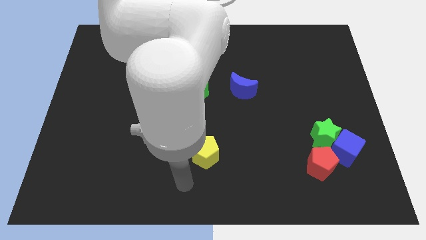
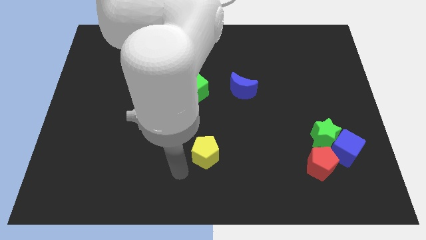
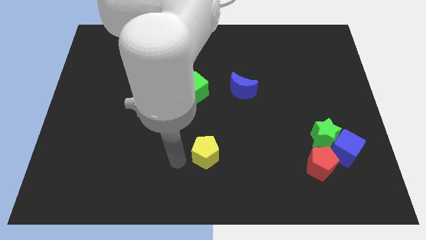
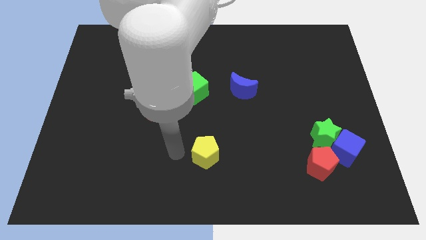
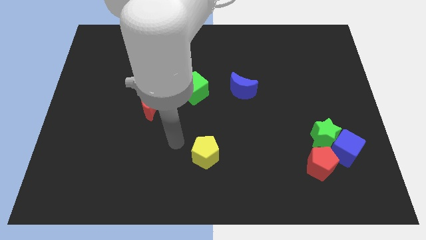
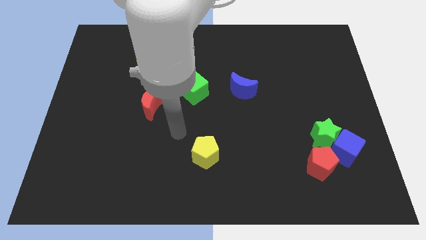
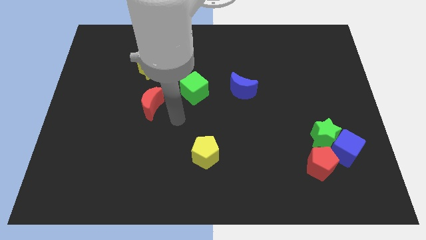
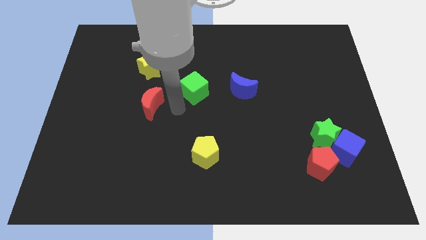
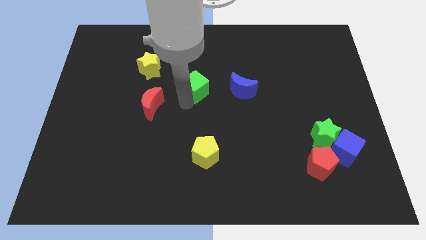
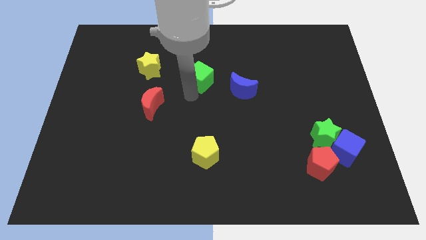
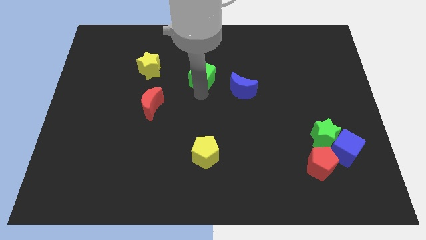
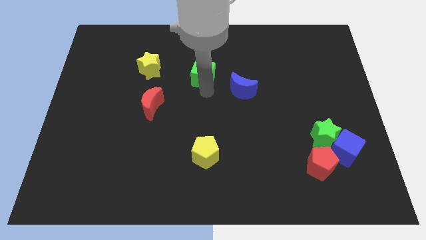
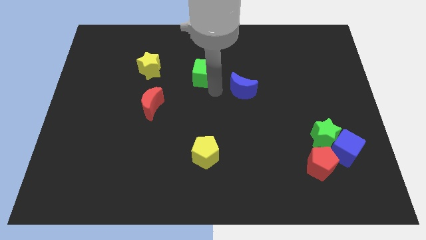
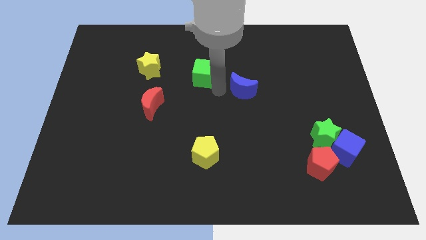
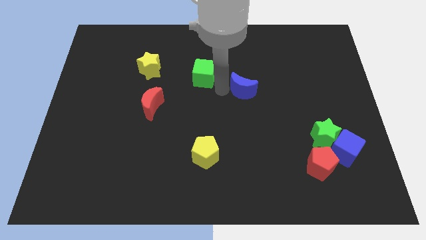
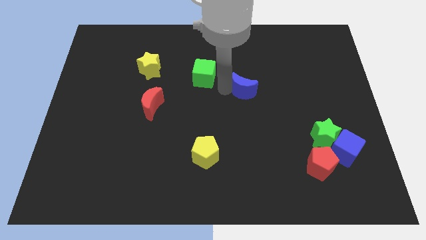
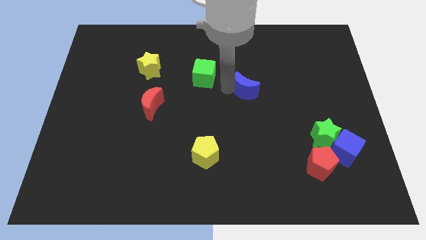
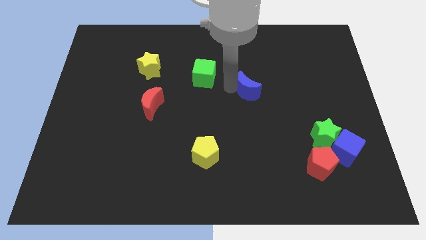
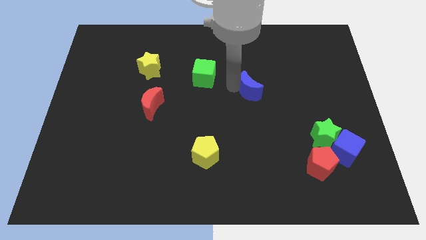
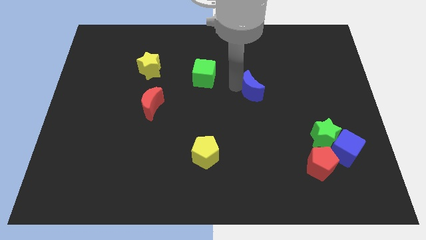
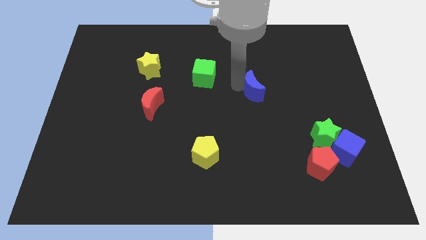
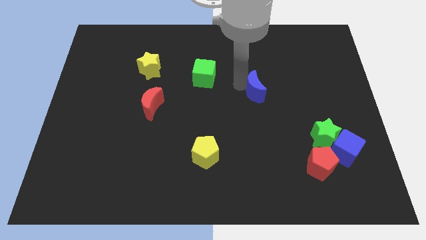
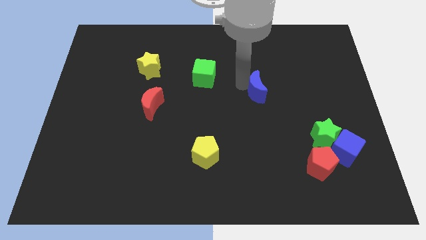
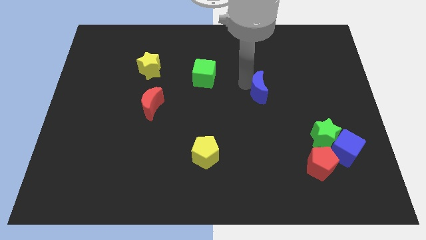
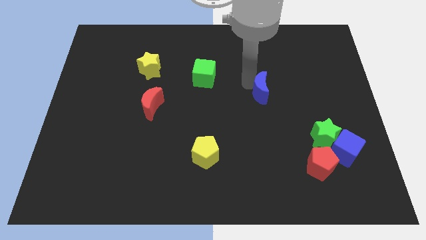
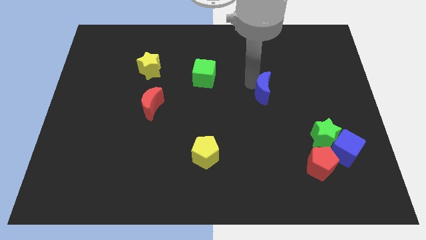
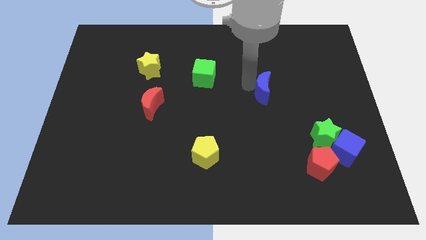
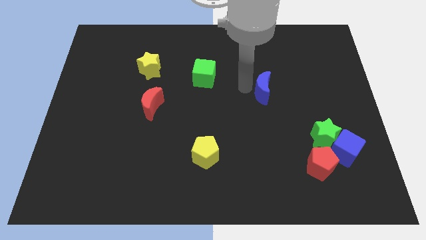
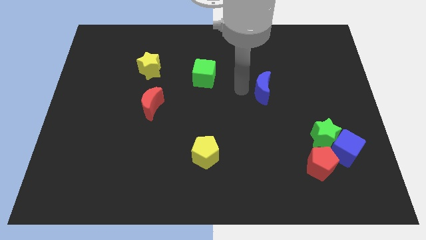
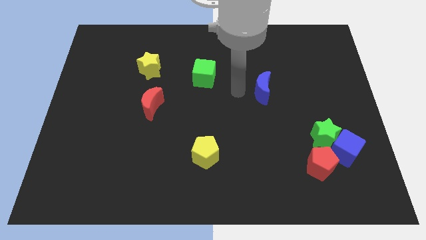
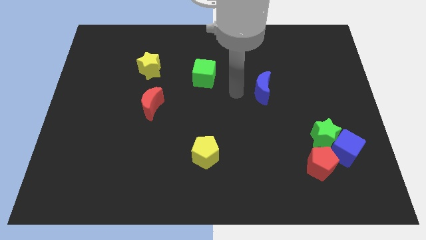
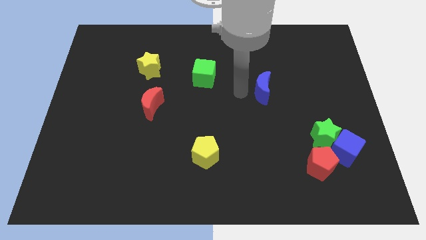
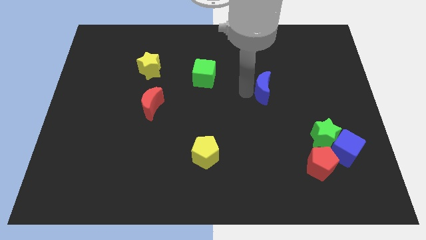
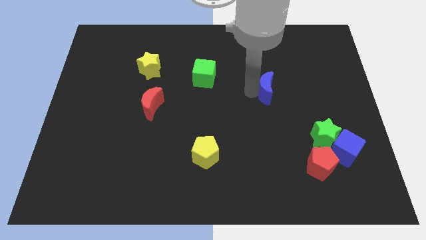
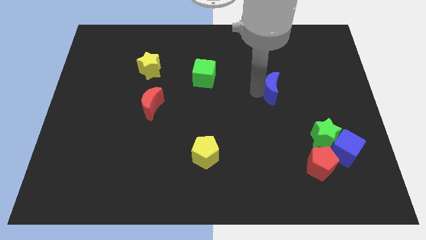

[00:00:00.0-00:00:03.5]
slide the blue moon to the right a bit

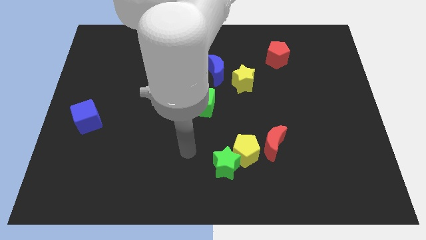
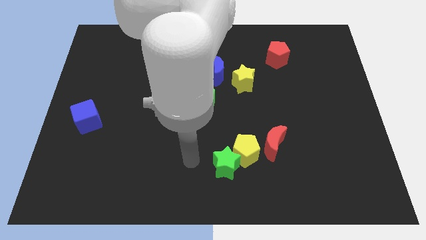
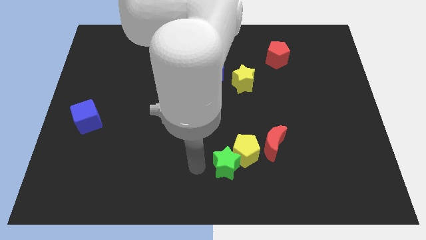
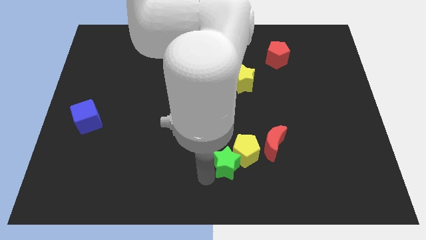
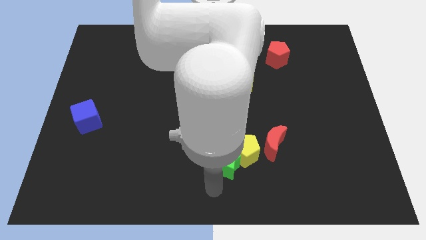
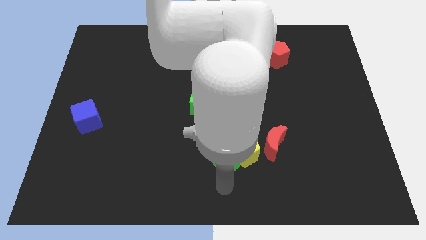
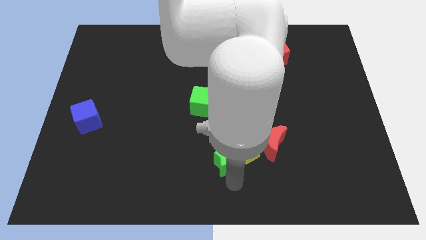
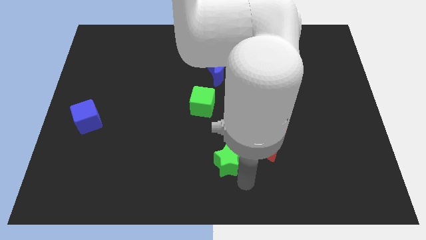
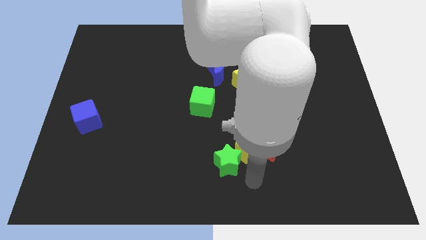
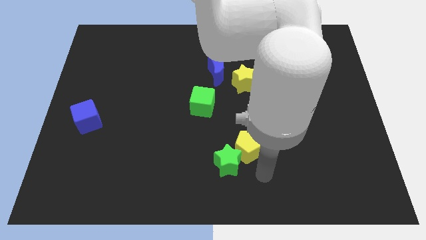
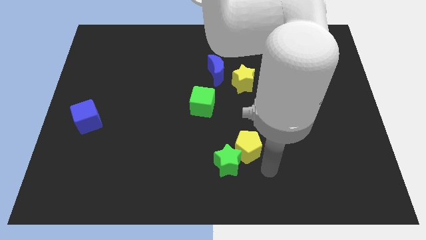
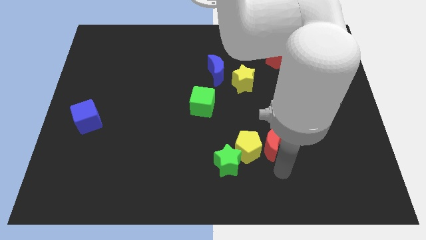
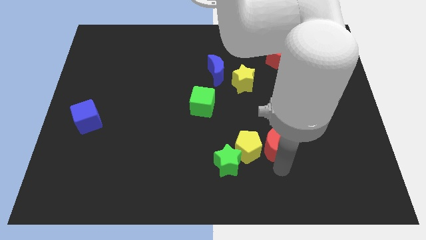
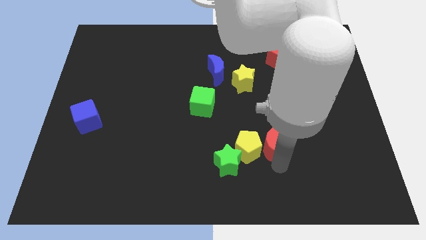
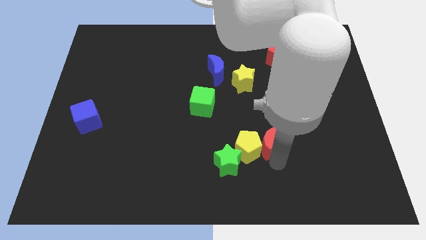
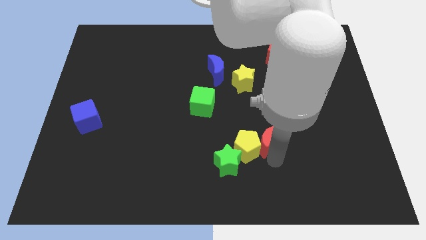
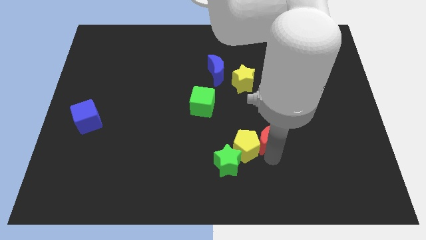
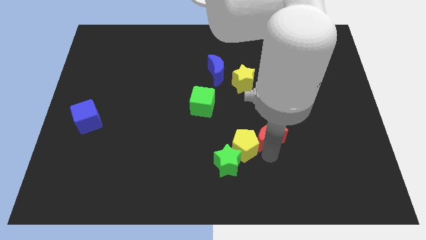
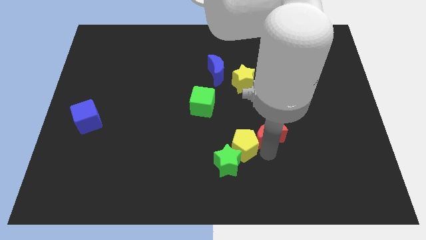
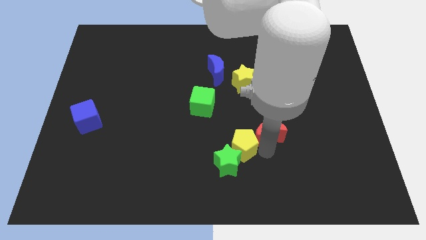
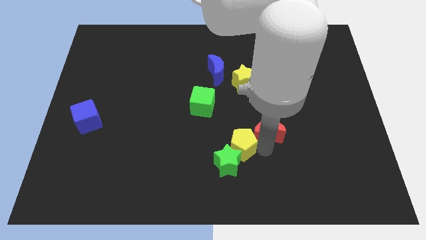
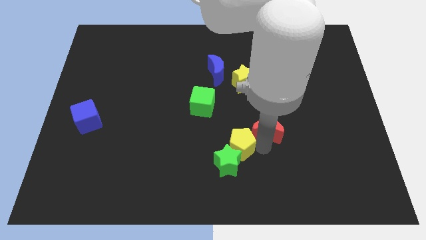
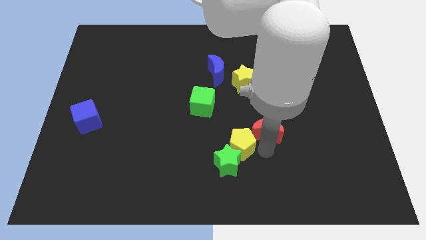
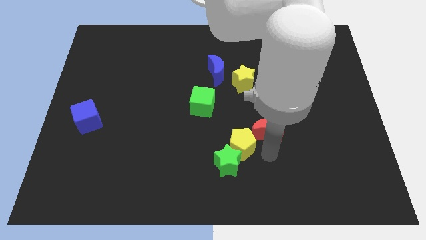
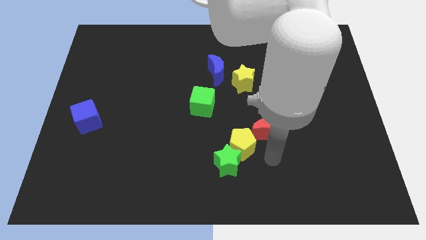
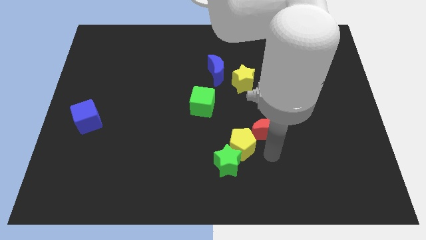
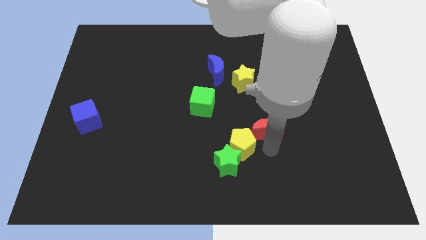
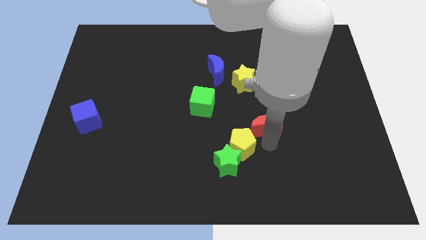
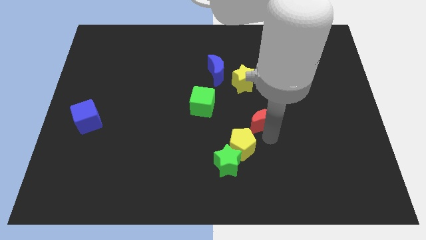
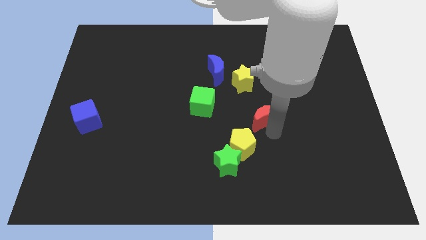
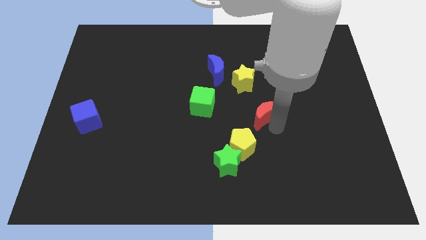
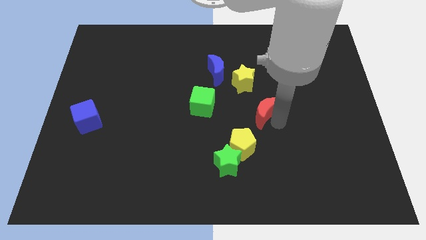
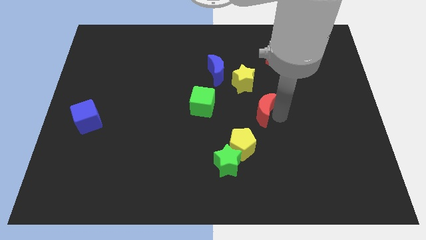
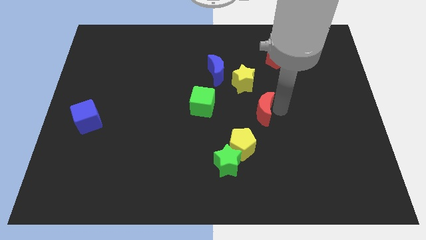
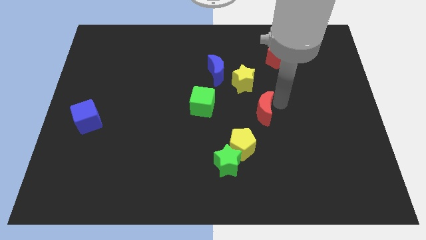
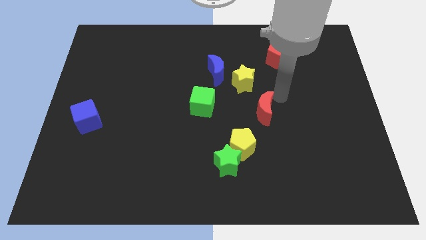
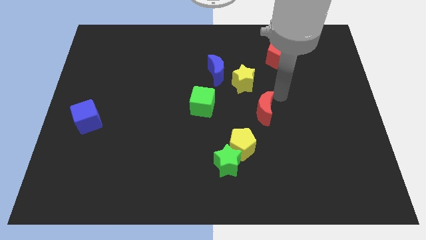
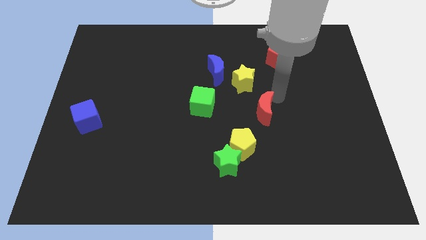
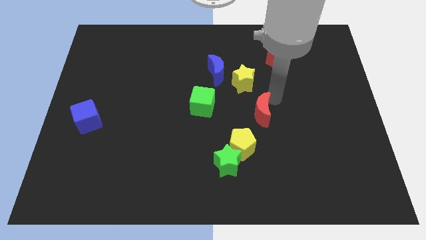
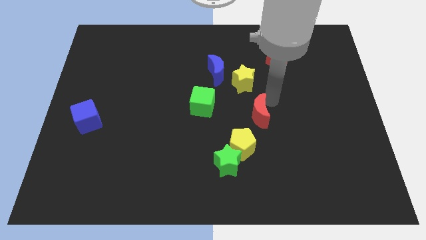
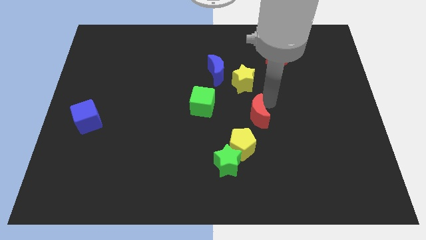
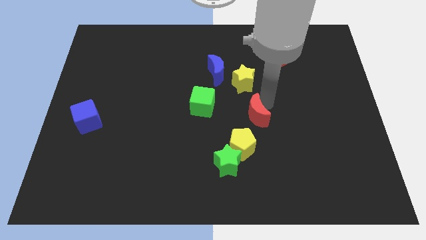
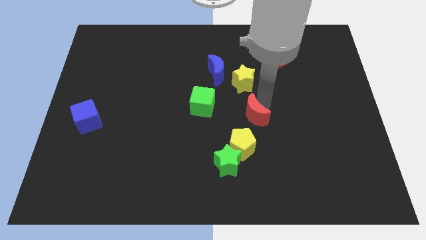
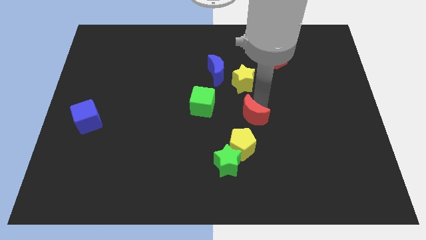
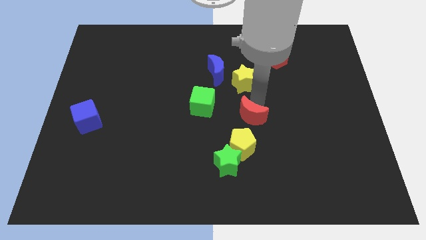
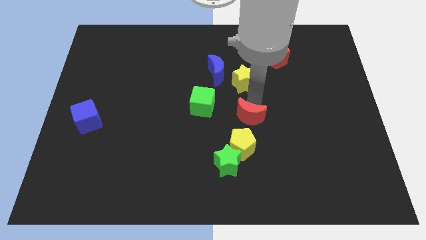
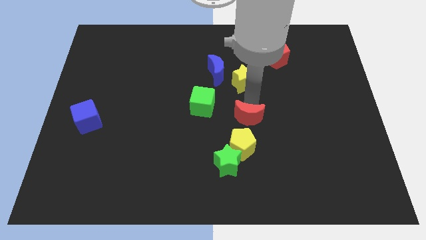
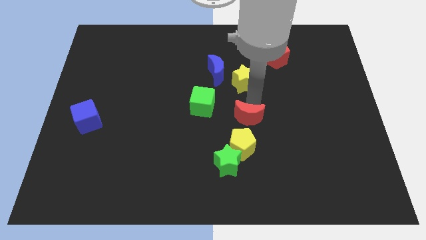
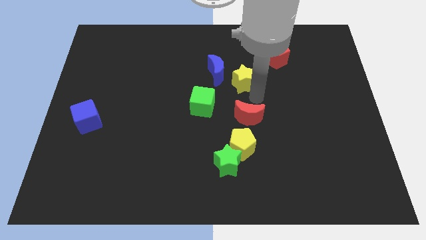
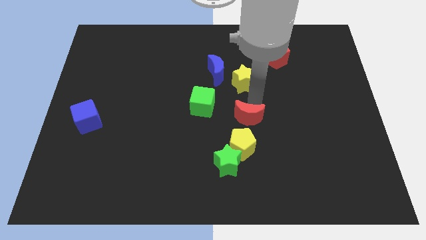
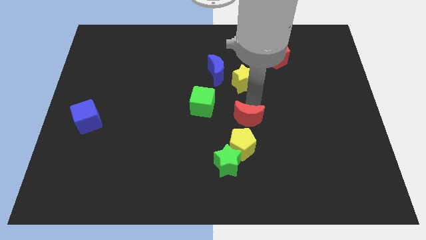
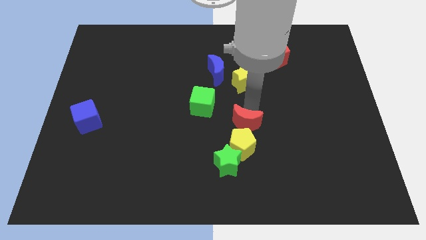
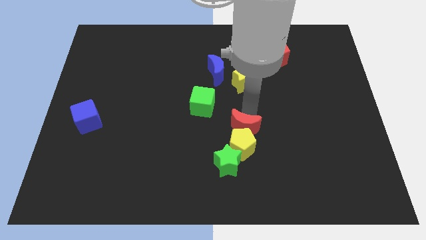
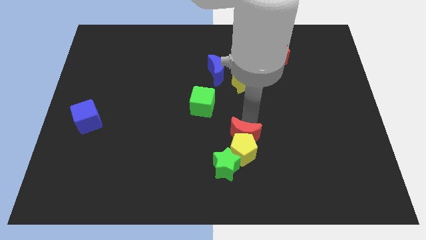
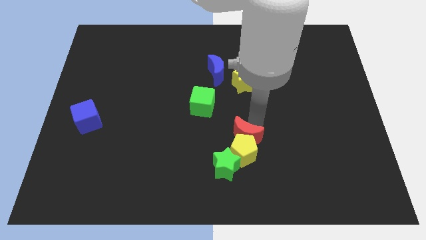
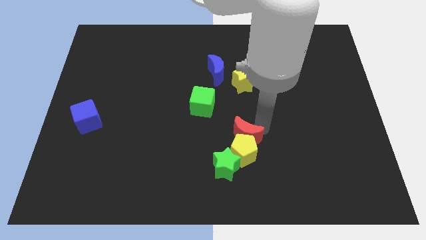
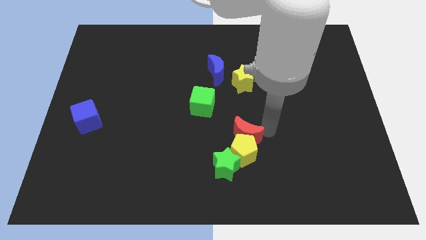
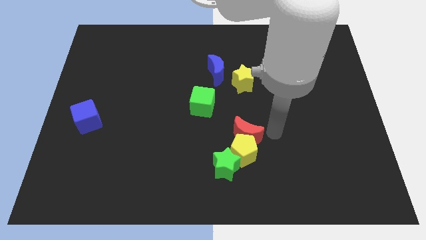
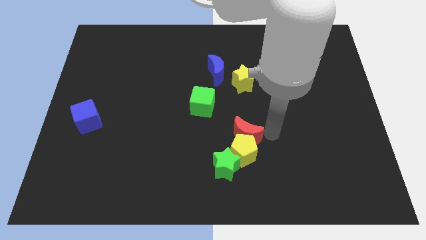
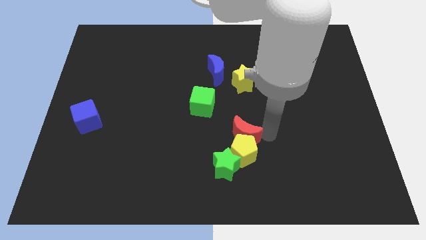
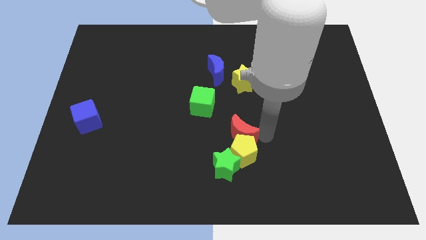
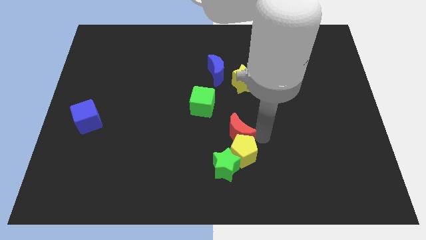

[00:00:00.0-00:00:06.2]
move the red moon a little bit left
